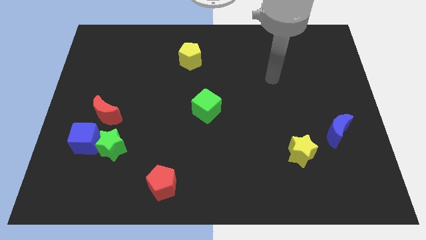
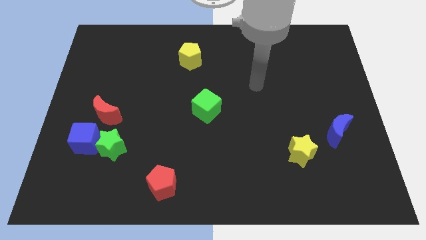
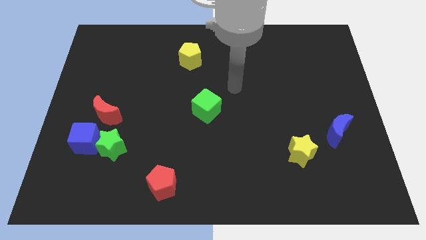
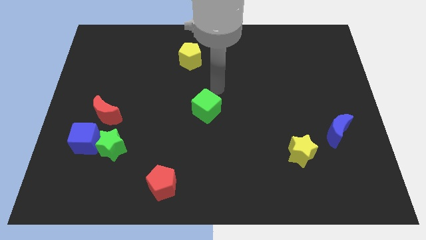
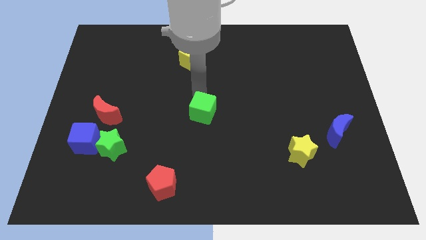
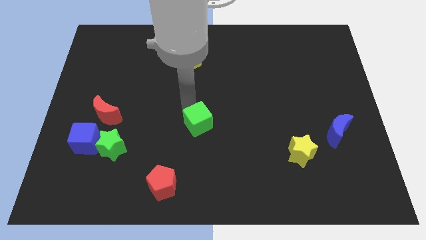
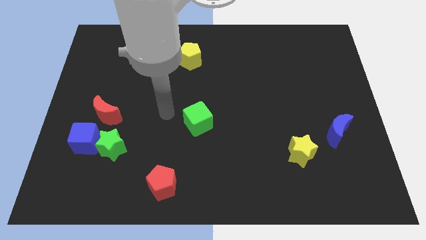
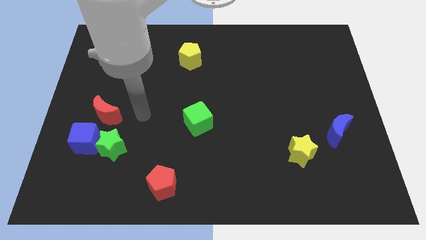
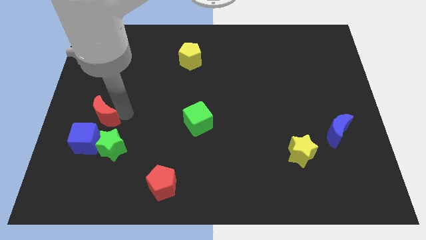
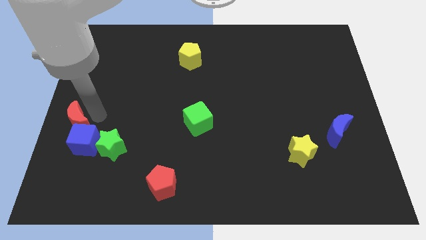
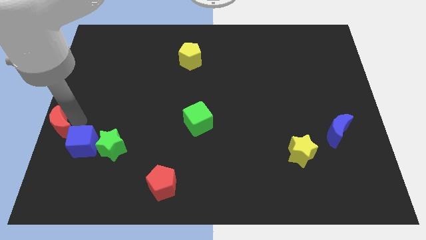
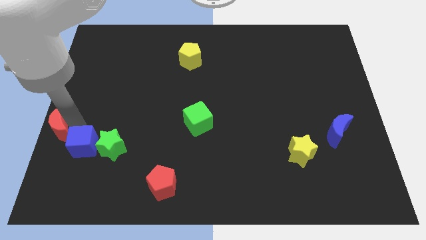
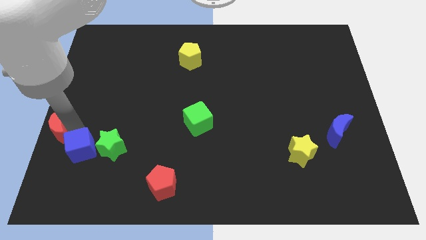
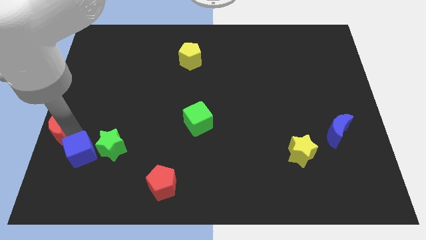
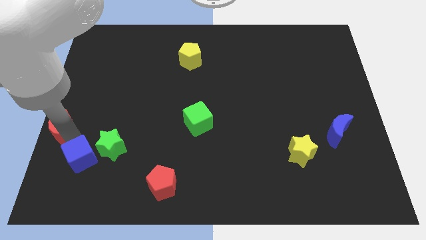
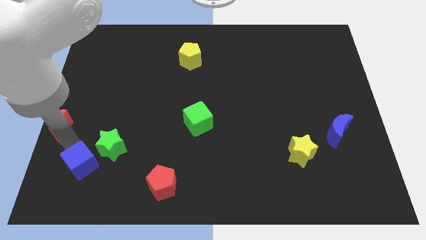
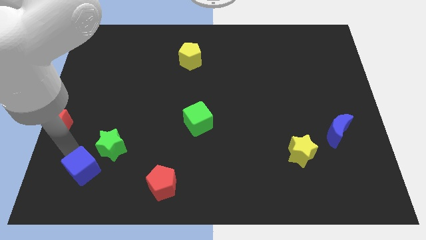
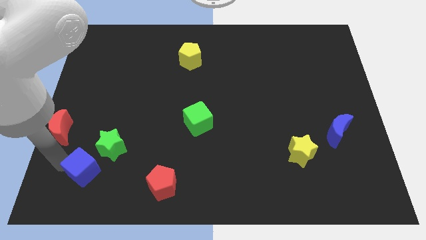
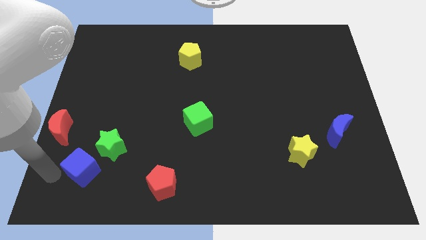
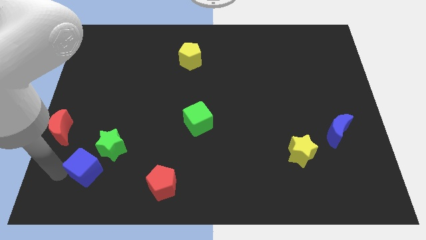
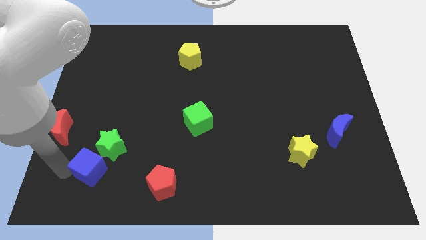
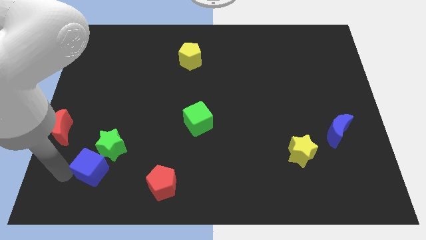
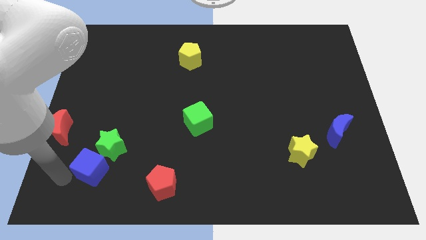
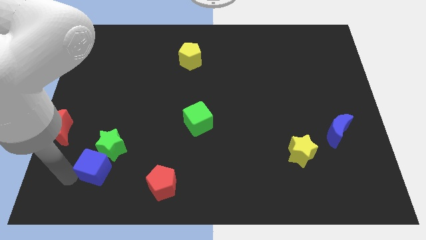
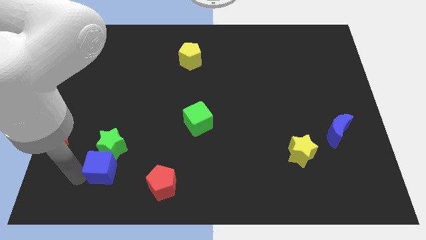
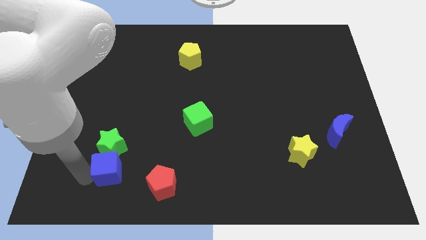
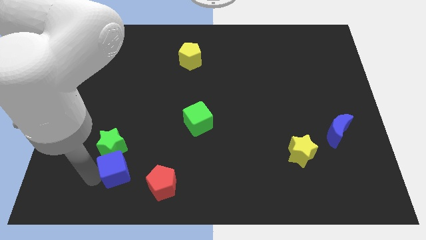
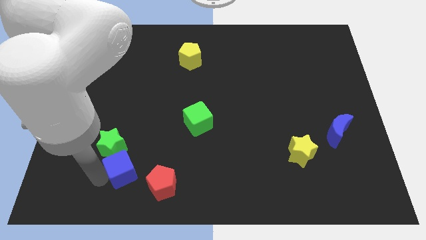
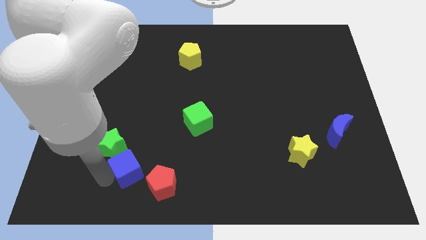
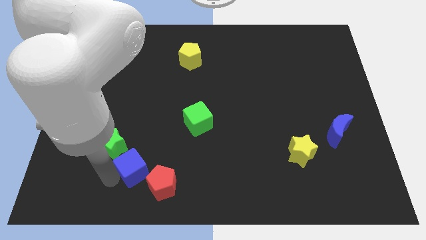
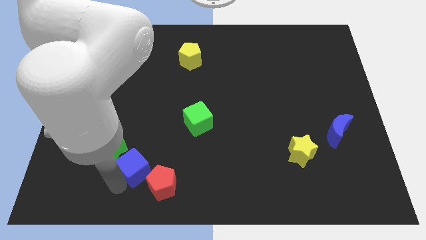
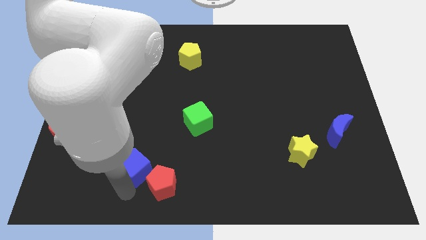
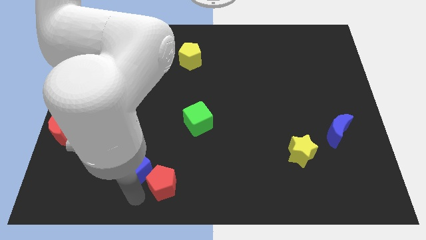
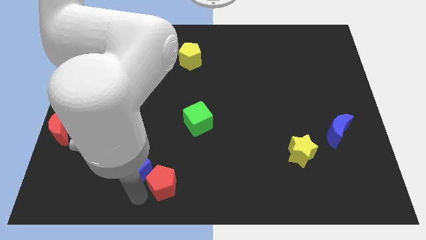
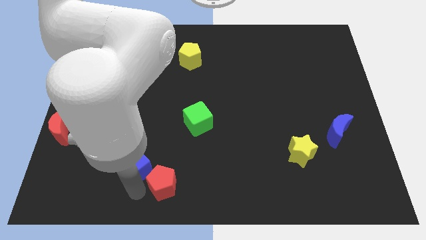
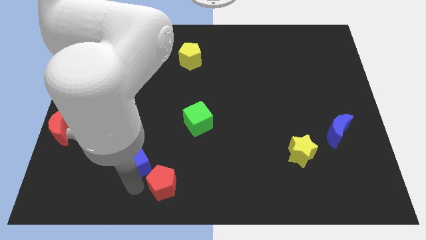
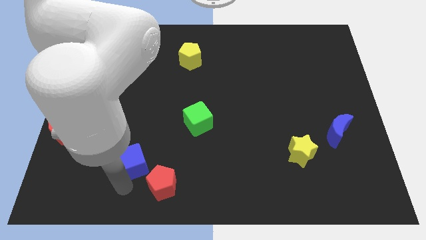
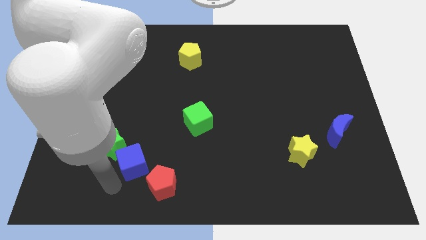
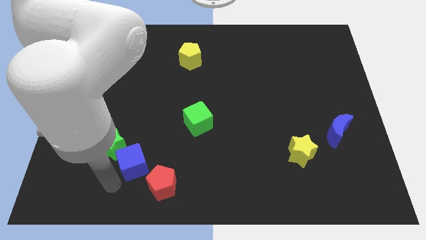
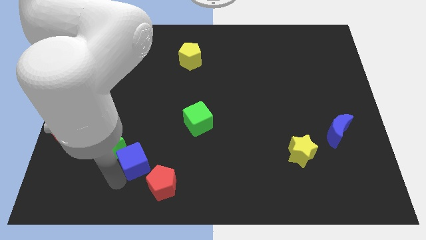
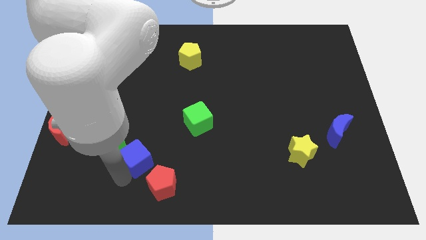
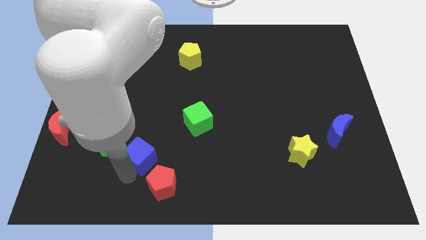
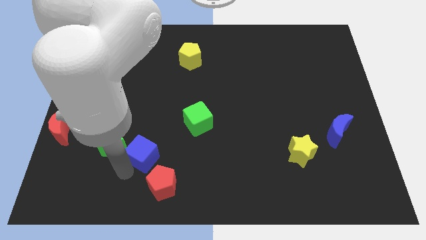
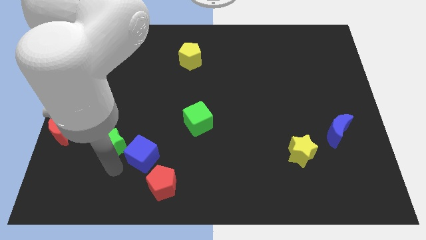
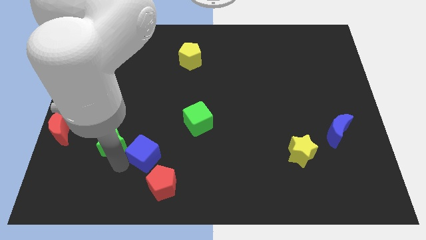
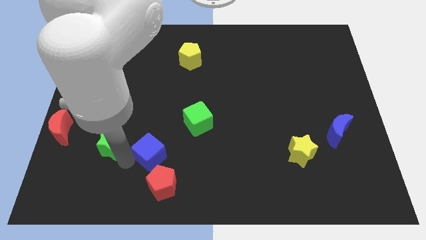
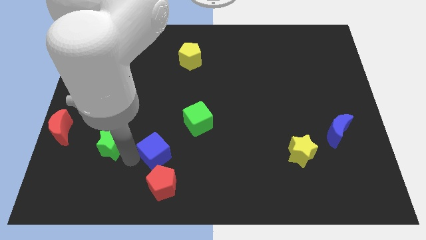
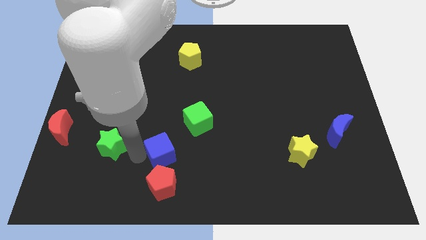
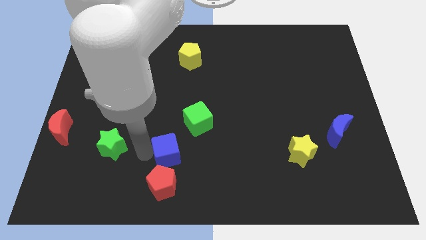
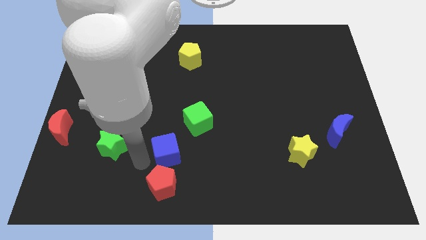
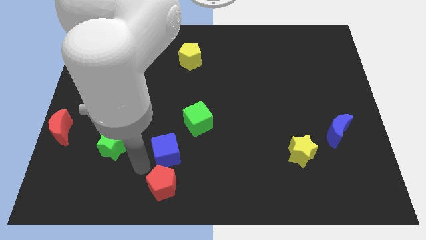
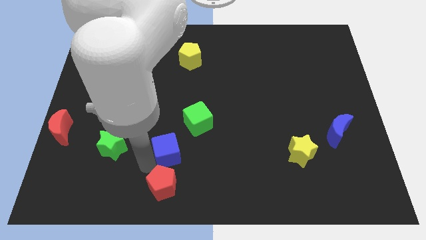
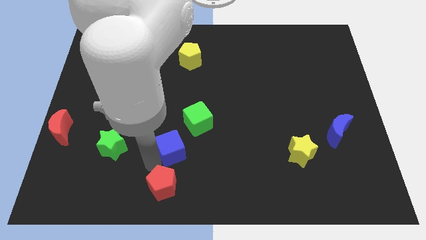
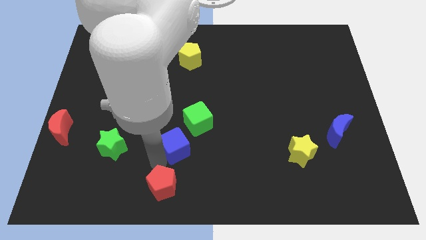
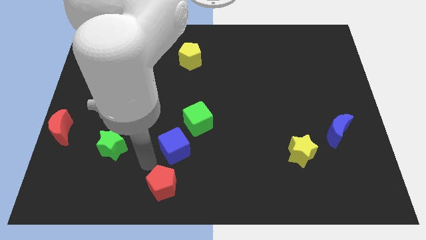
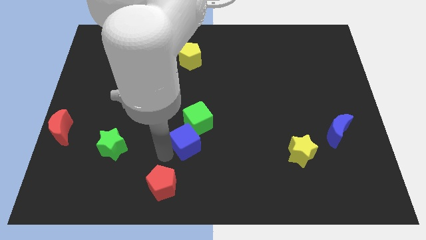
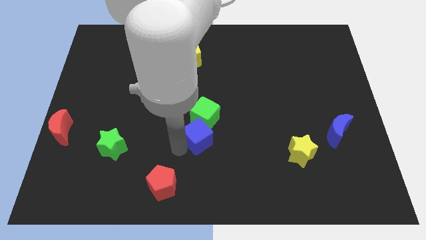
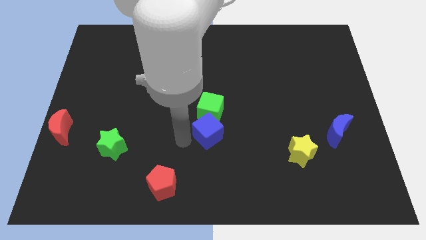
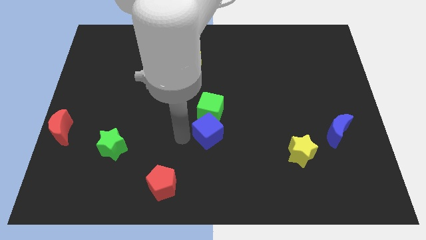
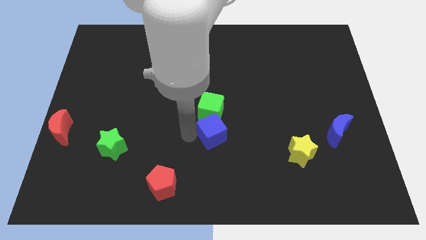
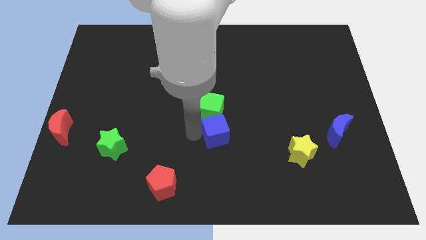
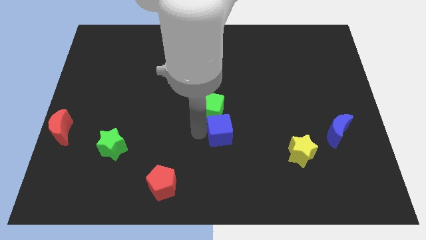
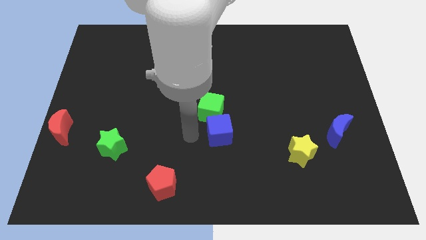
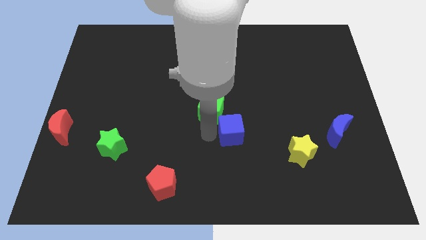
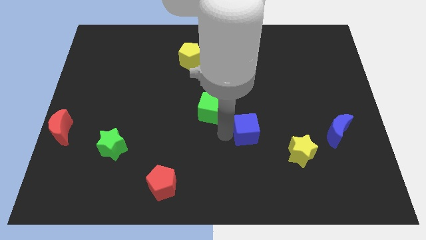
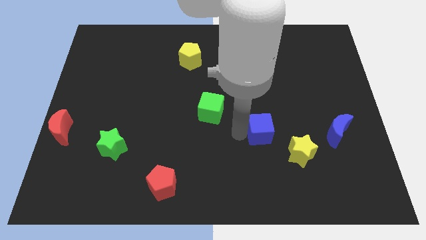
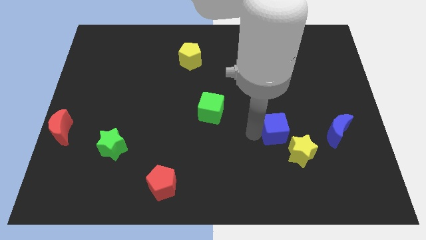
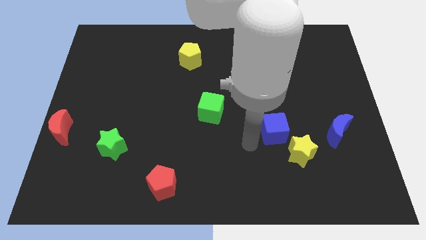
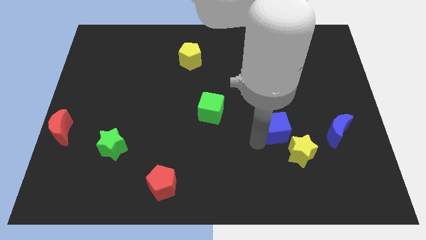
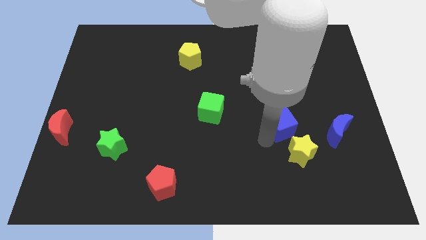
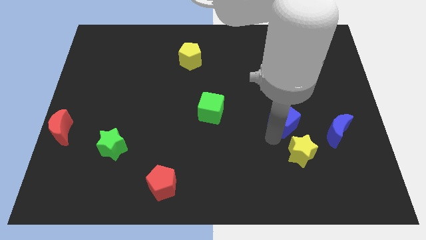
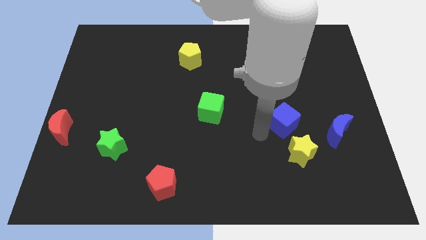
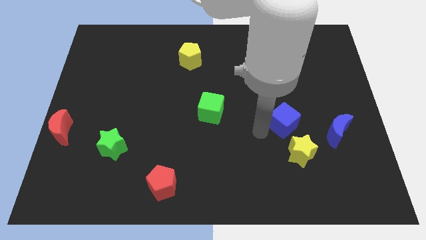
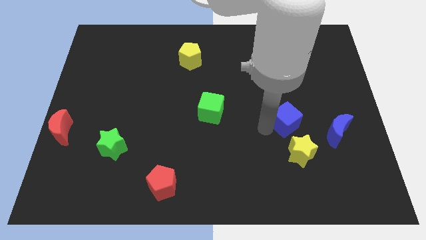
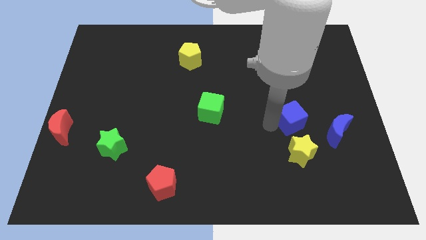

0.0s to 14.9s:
push the blue cube to the top left of the blue moon
